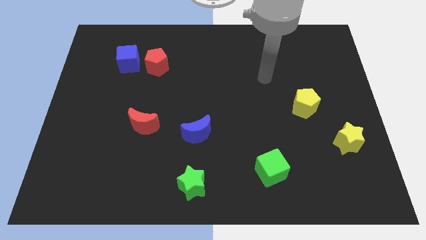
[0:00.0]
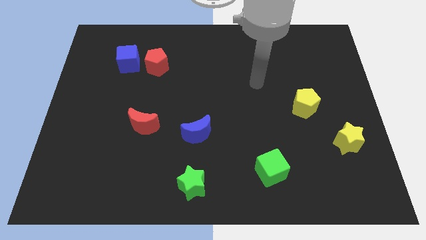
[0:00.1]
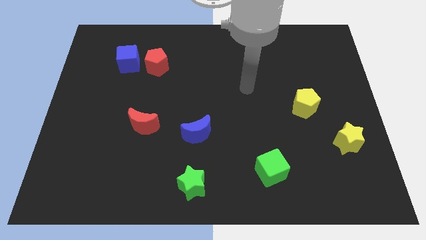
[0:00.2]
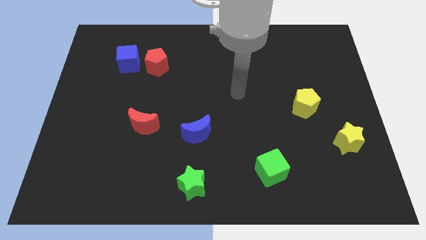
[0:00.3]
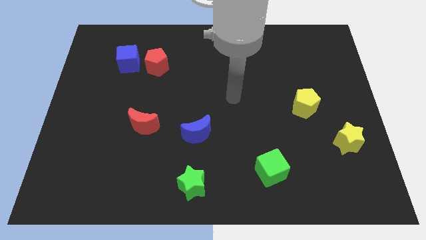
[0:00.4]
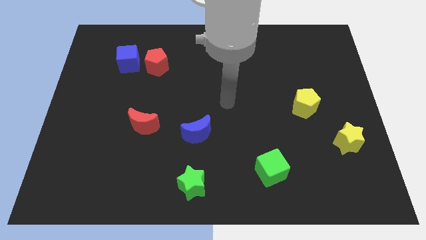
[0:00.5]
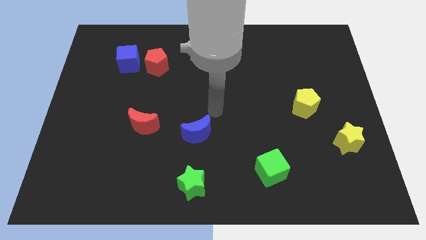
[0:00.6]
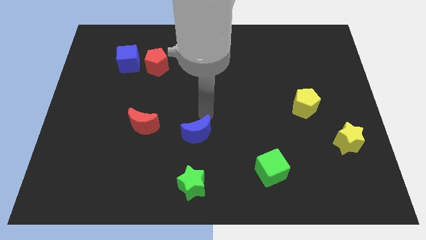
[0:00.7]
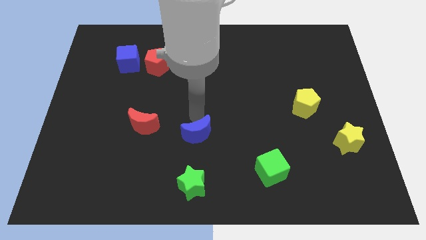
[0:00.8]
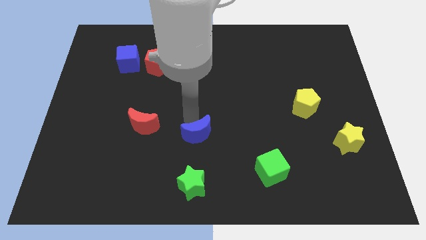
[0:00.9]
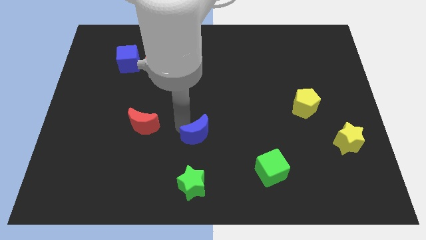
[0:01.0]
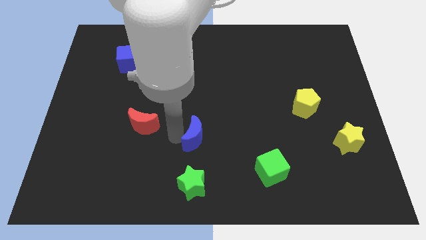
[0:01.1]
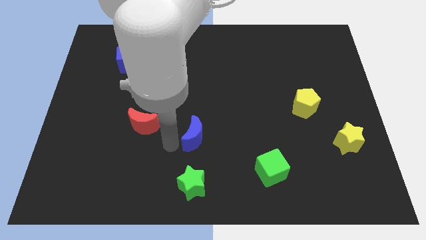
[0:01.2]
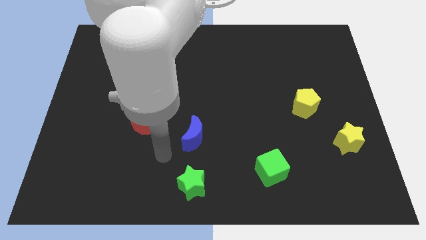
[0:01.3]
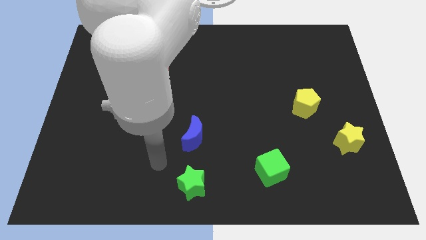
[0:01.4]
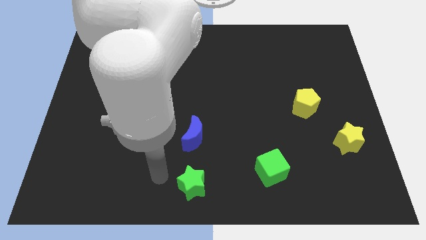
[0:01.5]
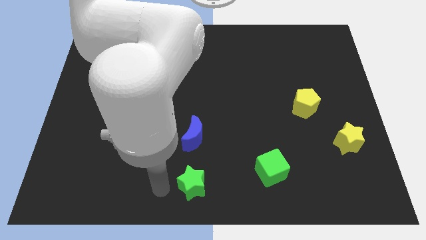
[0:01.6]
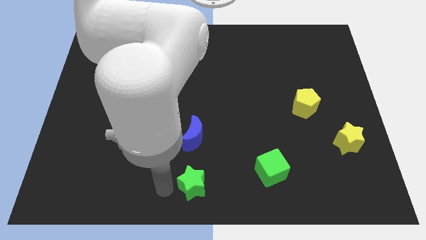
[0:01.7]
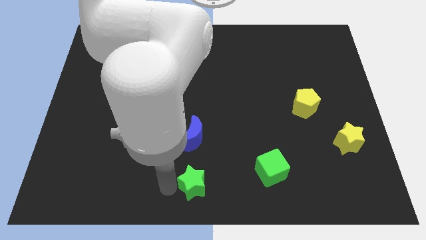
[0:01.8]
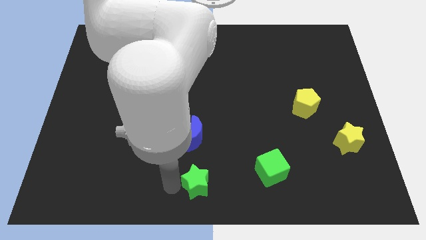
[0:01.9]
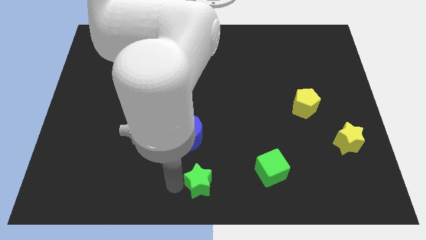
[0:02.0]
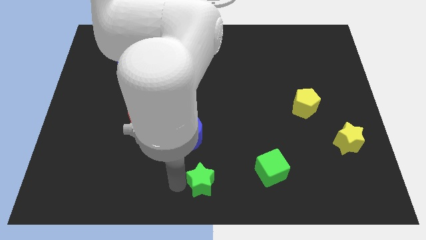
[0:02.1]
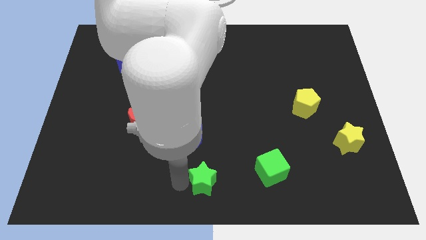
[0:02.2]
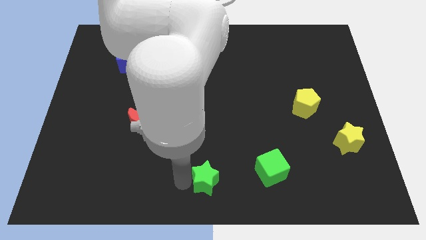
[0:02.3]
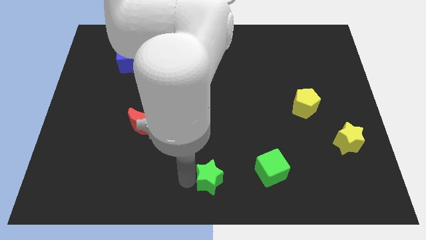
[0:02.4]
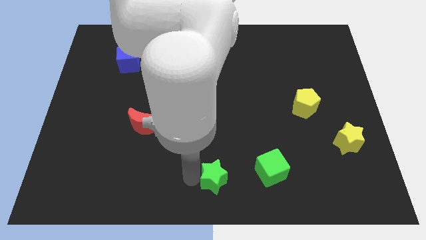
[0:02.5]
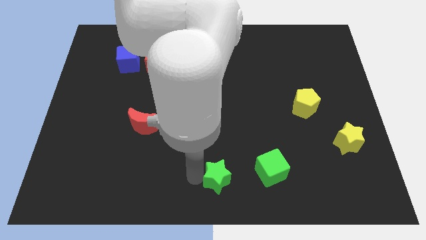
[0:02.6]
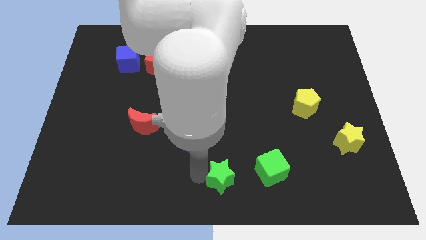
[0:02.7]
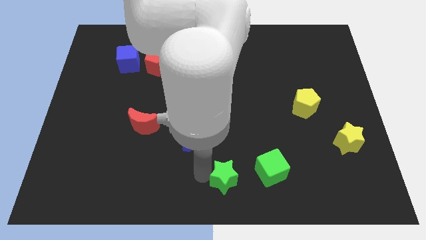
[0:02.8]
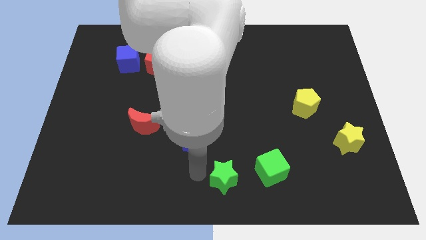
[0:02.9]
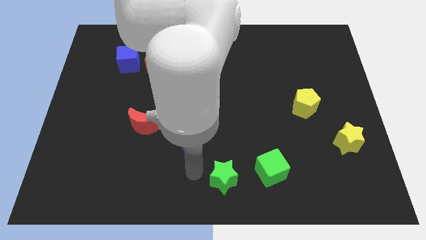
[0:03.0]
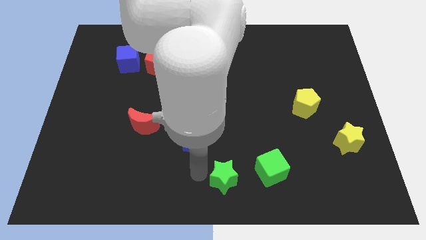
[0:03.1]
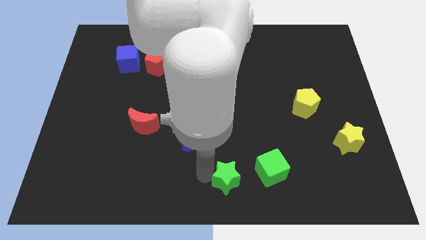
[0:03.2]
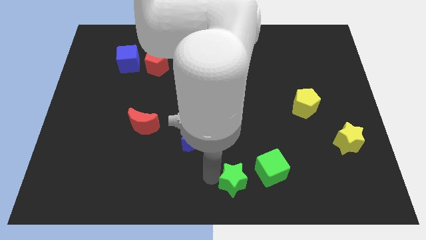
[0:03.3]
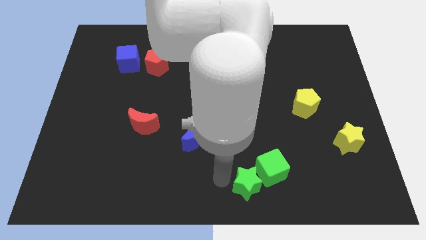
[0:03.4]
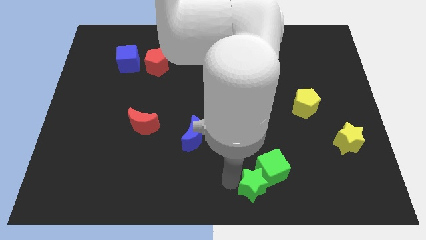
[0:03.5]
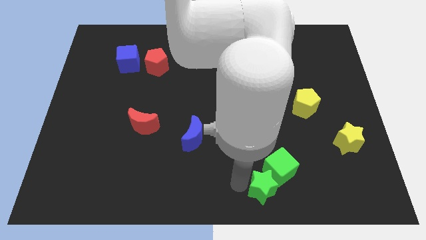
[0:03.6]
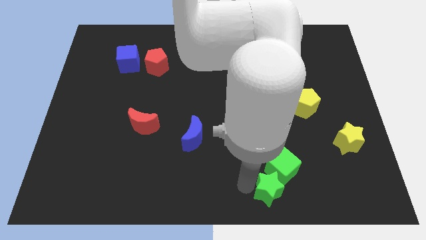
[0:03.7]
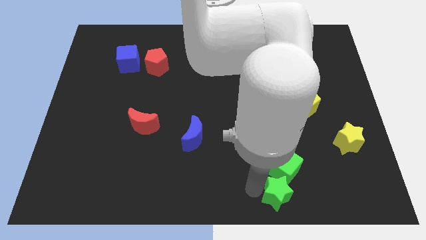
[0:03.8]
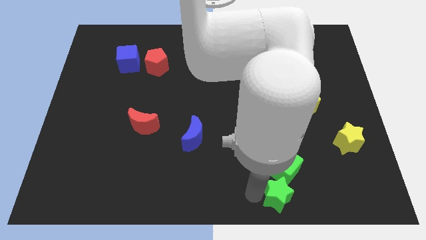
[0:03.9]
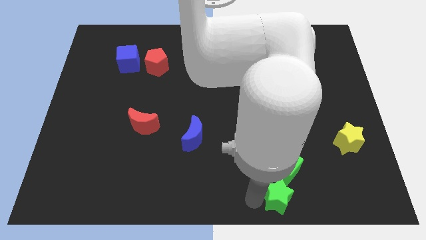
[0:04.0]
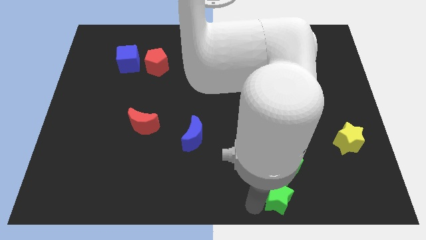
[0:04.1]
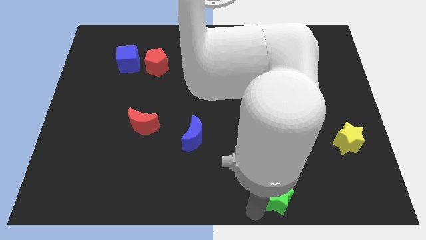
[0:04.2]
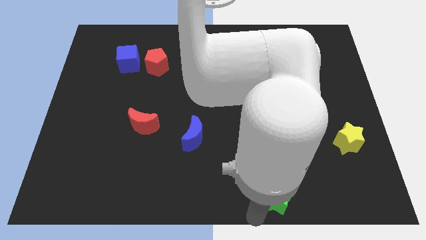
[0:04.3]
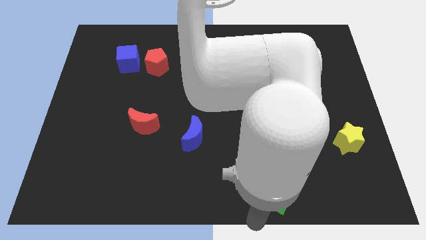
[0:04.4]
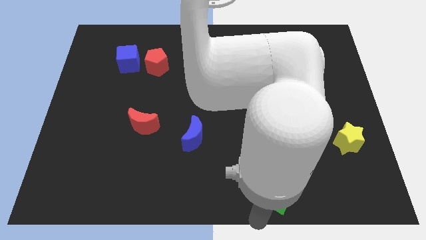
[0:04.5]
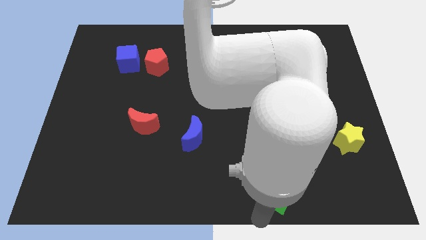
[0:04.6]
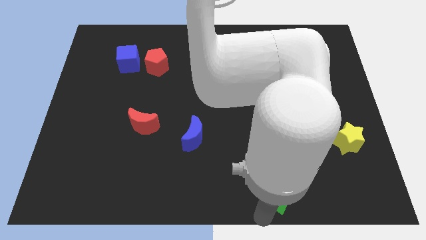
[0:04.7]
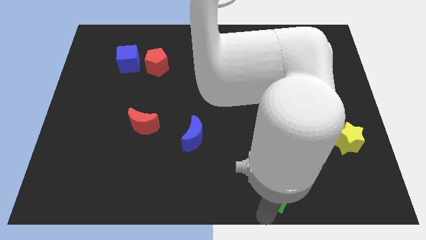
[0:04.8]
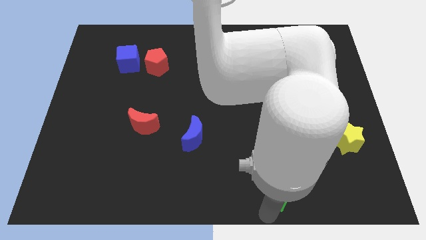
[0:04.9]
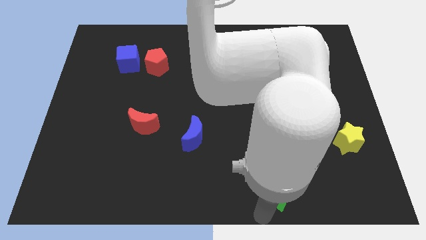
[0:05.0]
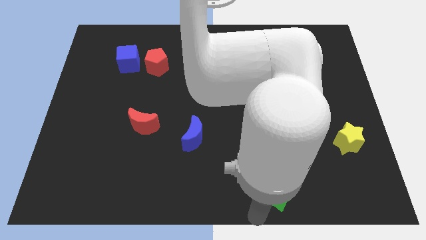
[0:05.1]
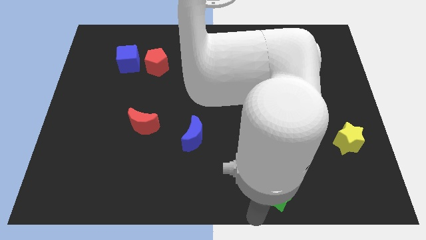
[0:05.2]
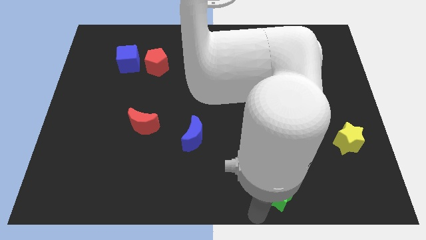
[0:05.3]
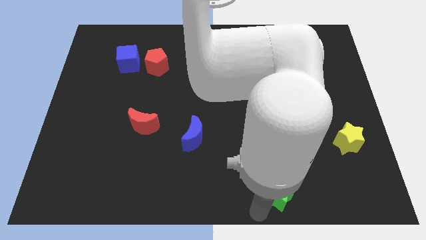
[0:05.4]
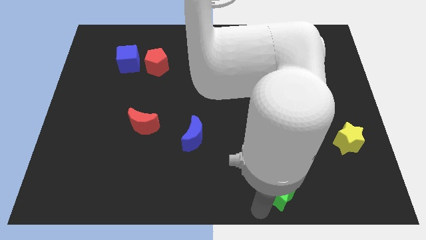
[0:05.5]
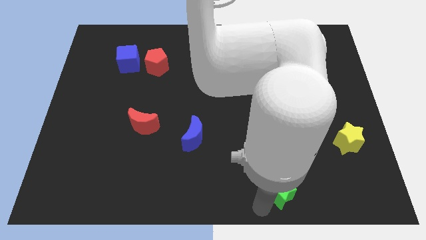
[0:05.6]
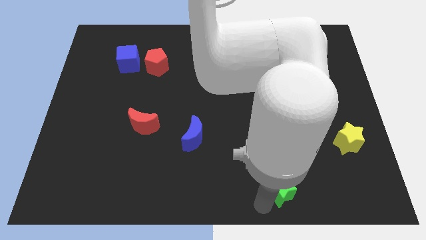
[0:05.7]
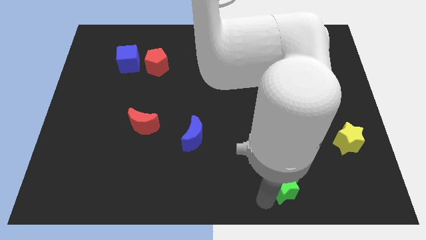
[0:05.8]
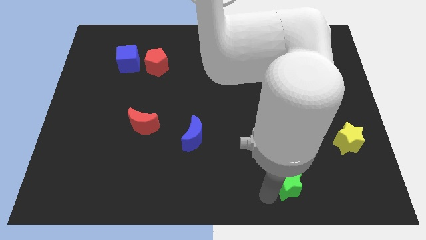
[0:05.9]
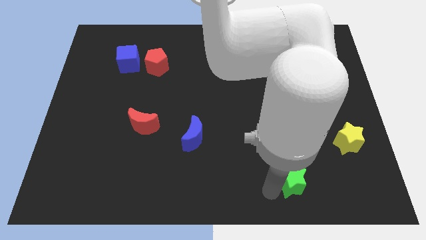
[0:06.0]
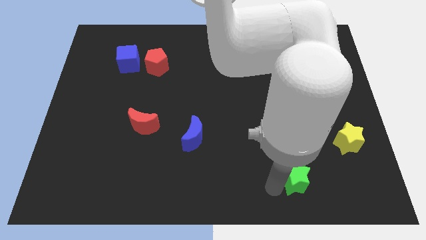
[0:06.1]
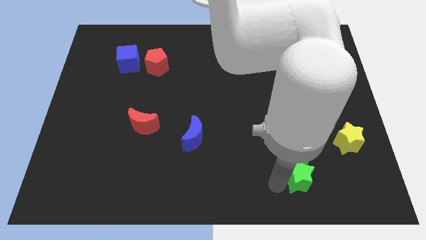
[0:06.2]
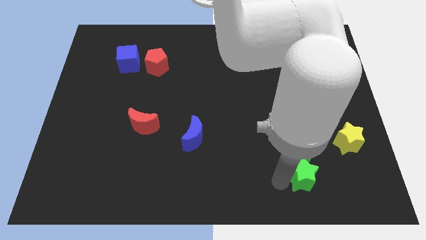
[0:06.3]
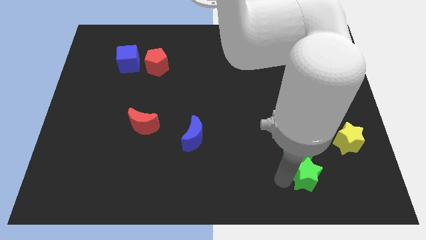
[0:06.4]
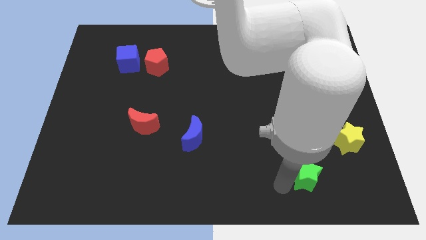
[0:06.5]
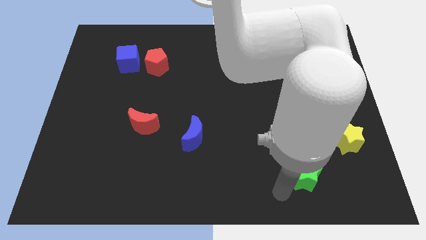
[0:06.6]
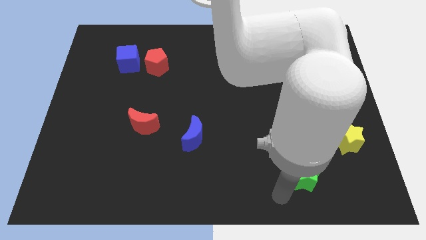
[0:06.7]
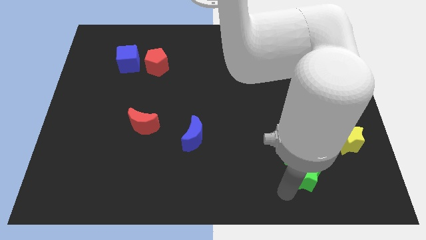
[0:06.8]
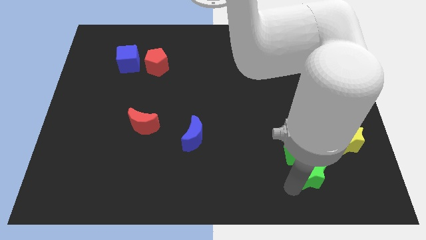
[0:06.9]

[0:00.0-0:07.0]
push the green star to the bottom left side of the yellow star
